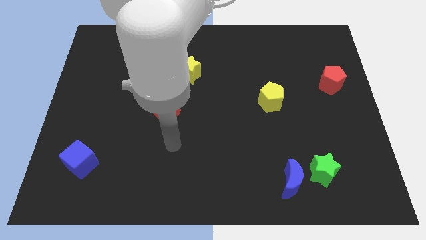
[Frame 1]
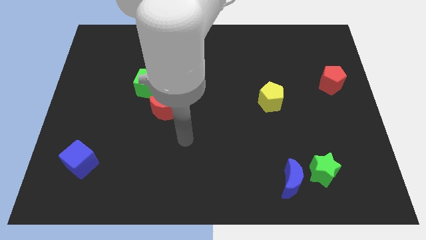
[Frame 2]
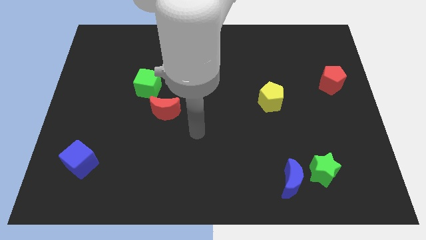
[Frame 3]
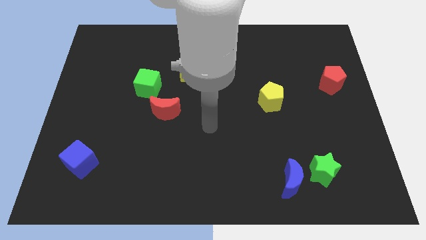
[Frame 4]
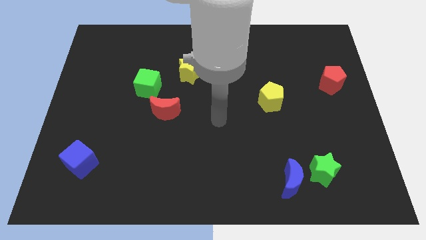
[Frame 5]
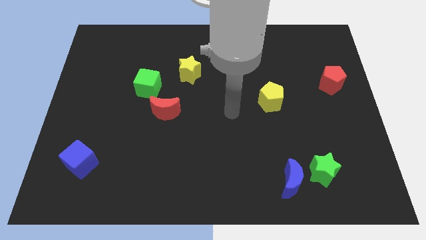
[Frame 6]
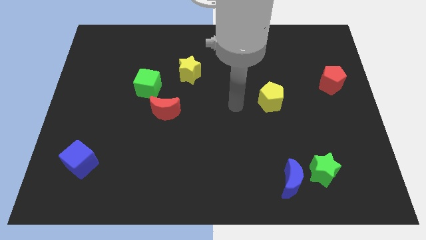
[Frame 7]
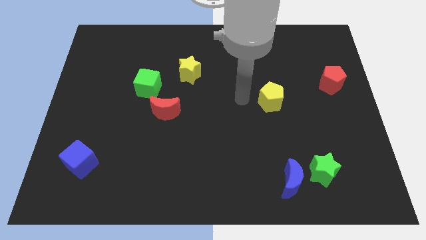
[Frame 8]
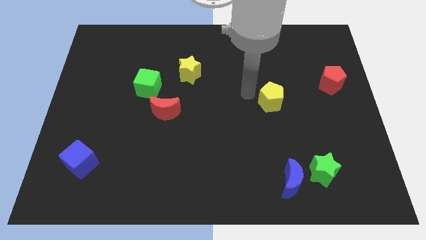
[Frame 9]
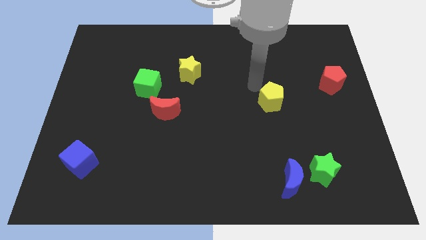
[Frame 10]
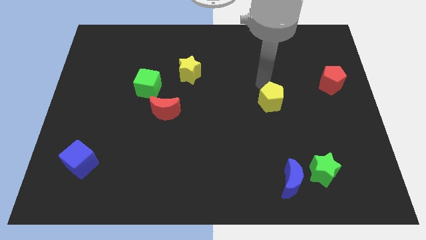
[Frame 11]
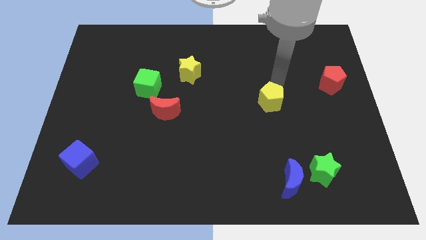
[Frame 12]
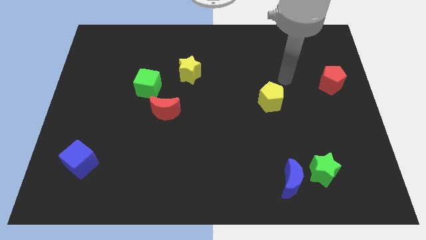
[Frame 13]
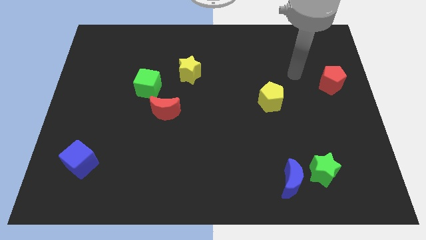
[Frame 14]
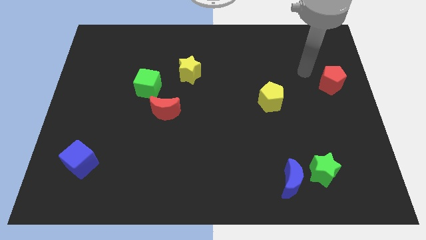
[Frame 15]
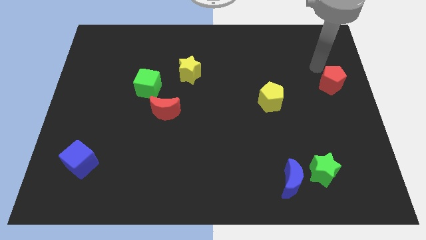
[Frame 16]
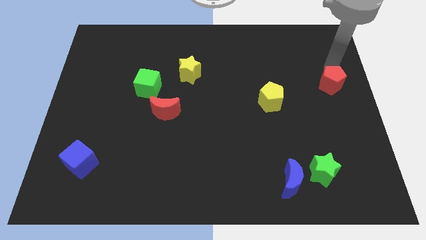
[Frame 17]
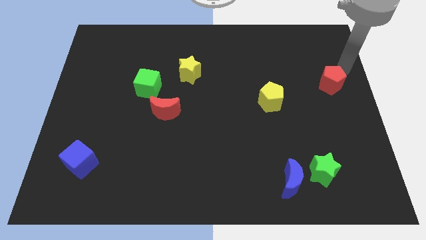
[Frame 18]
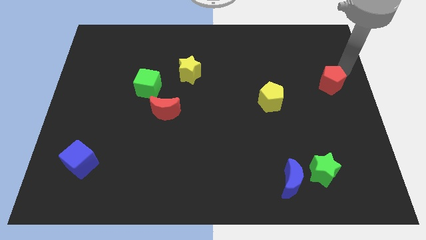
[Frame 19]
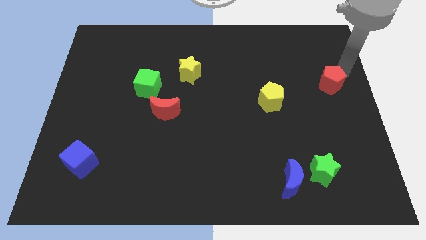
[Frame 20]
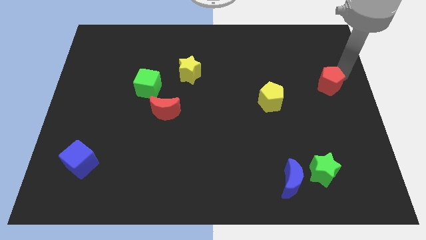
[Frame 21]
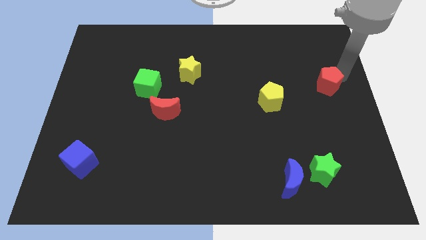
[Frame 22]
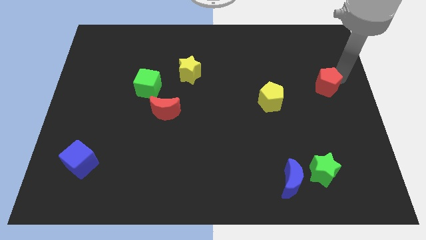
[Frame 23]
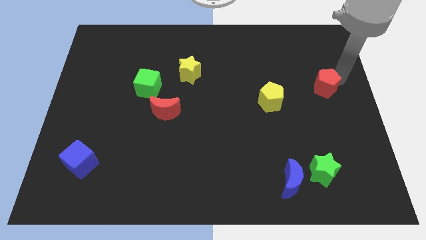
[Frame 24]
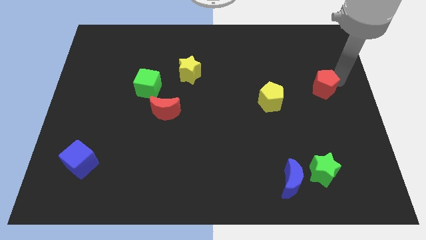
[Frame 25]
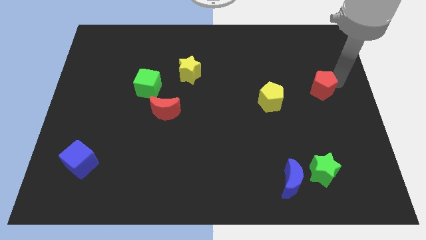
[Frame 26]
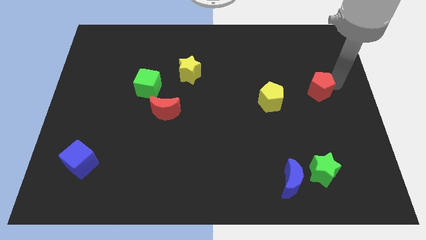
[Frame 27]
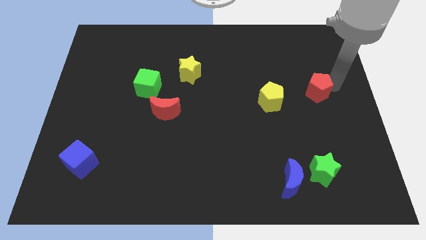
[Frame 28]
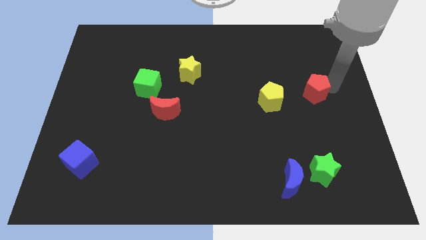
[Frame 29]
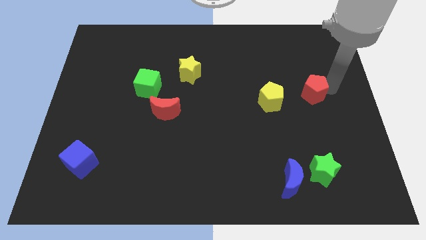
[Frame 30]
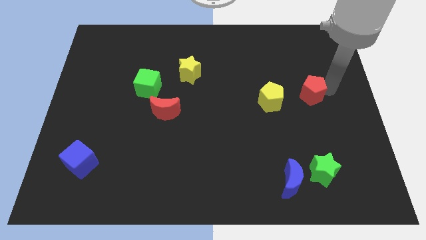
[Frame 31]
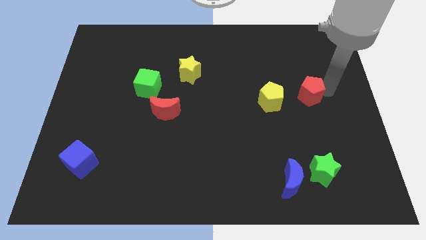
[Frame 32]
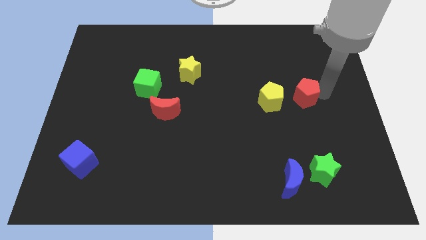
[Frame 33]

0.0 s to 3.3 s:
move the red pentagon slightly downwards and to the left diagonally

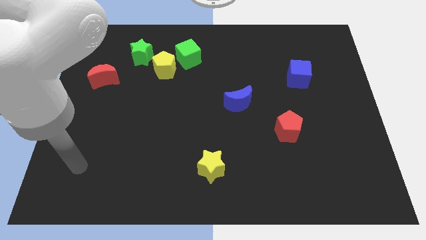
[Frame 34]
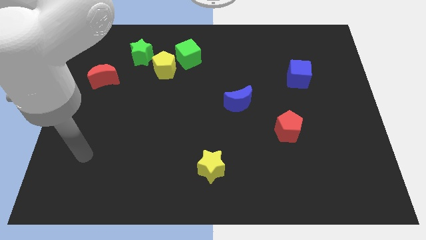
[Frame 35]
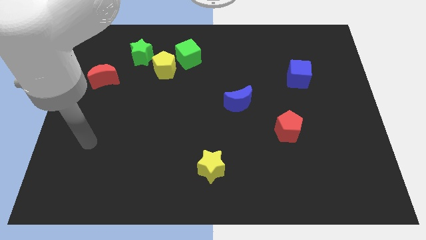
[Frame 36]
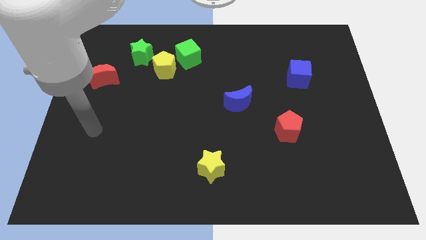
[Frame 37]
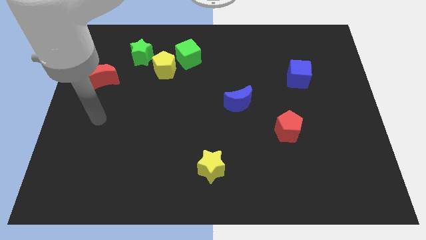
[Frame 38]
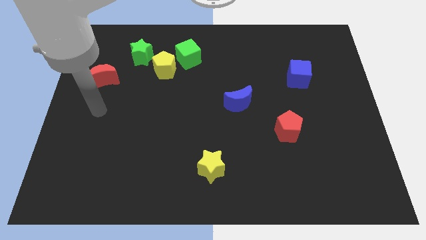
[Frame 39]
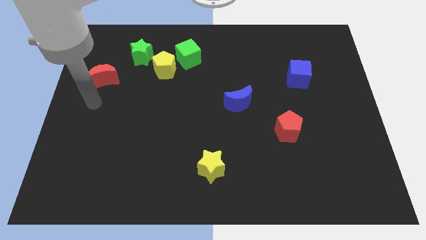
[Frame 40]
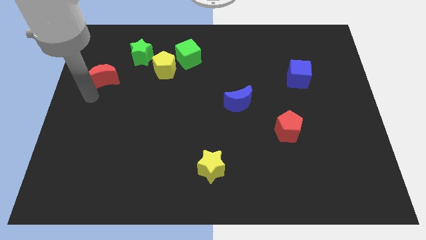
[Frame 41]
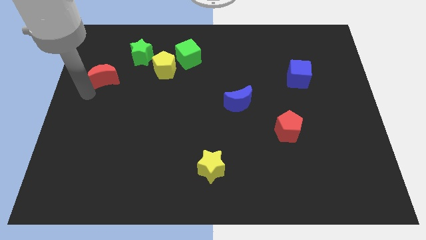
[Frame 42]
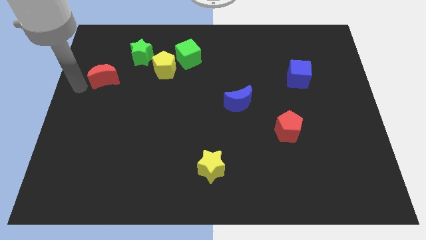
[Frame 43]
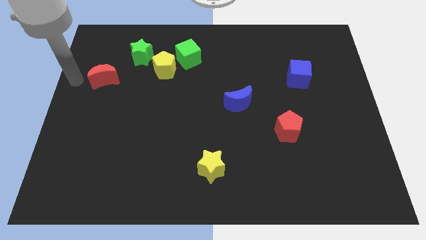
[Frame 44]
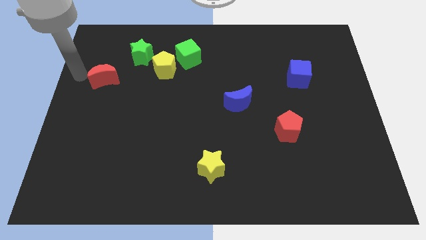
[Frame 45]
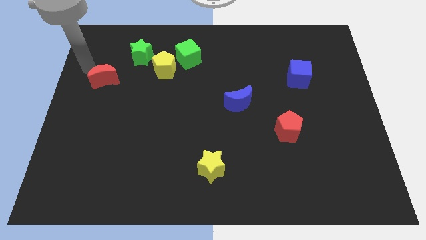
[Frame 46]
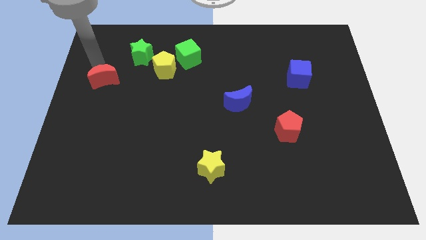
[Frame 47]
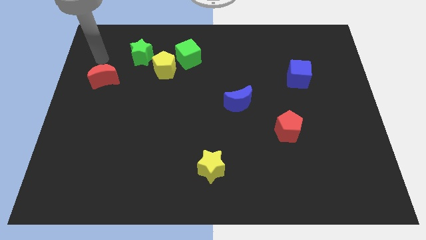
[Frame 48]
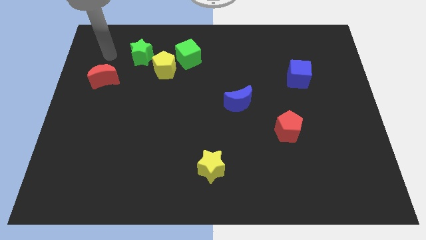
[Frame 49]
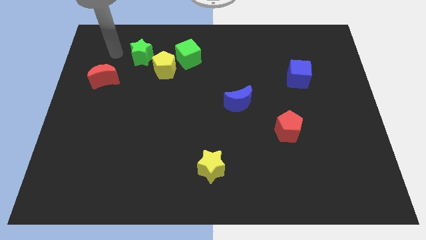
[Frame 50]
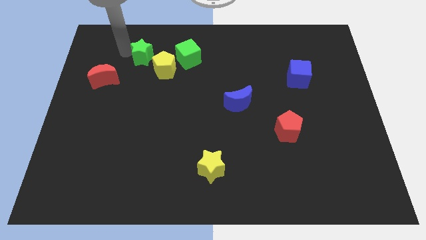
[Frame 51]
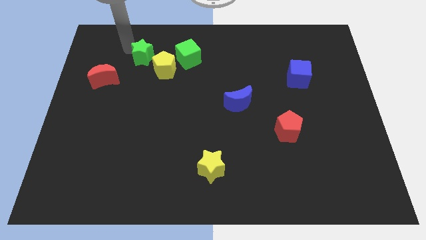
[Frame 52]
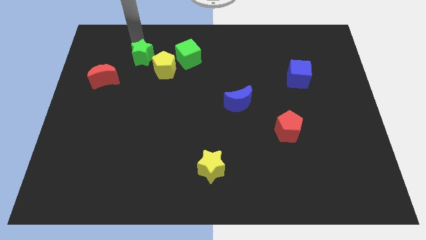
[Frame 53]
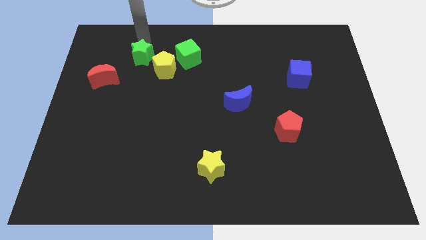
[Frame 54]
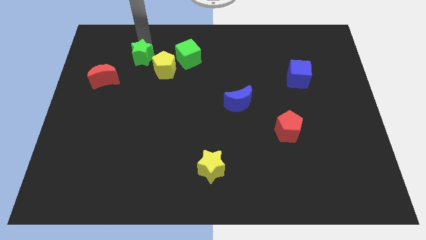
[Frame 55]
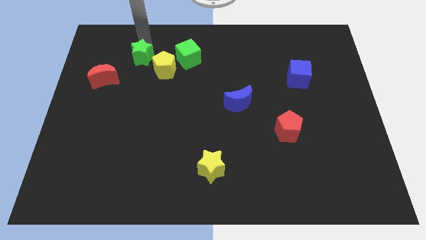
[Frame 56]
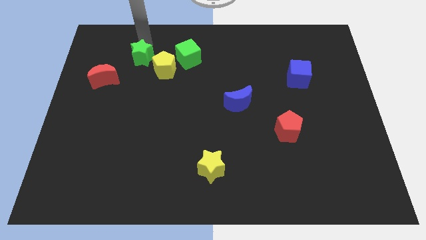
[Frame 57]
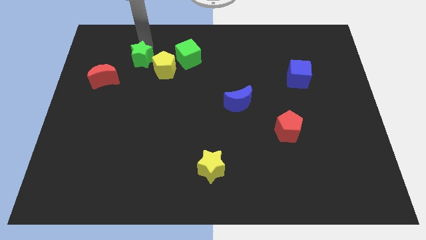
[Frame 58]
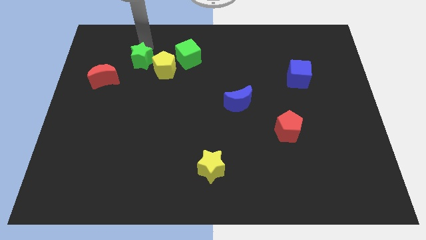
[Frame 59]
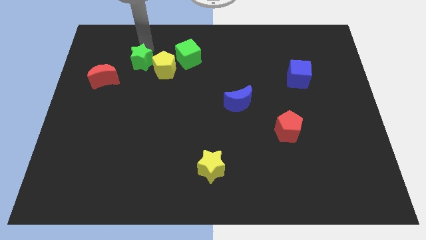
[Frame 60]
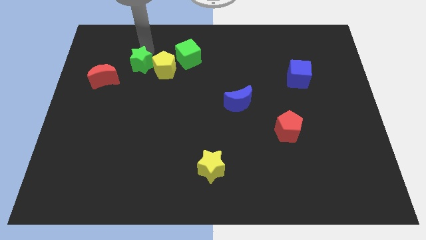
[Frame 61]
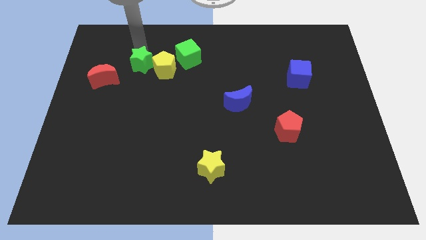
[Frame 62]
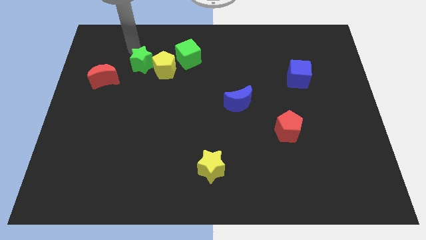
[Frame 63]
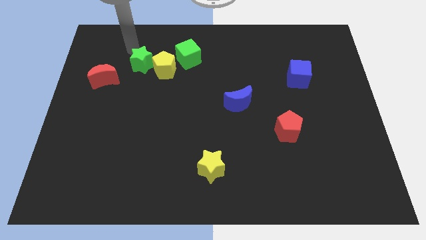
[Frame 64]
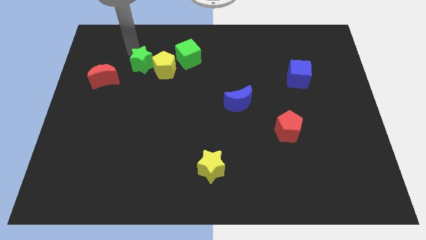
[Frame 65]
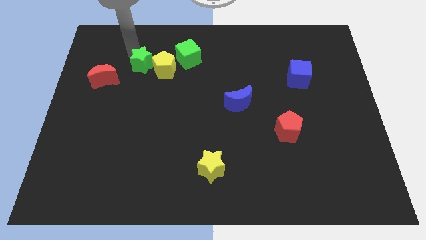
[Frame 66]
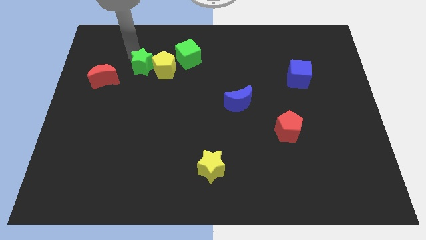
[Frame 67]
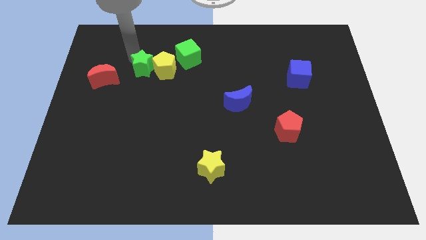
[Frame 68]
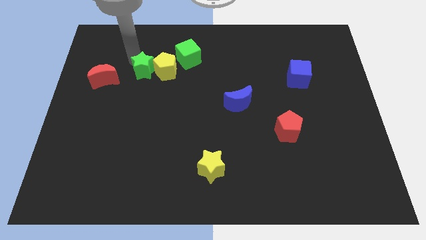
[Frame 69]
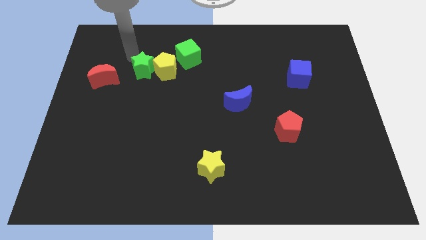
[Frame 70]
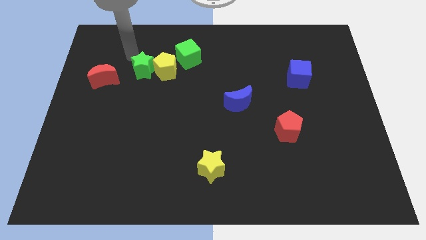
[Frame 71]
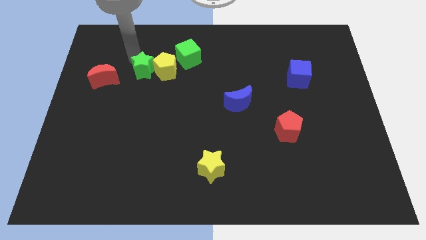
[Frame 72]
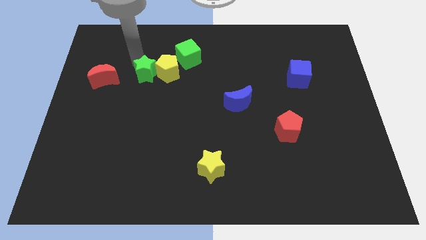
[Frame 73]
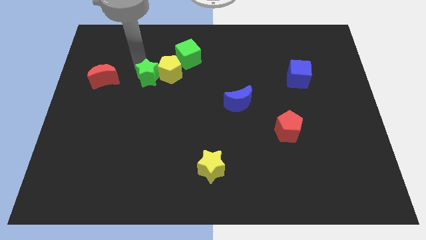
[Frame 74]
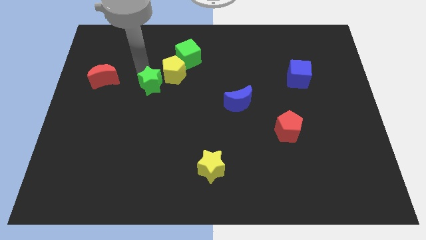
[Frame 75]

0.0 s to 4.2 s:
slightly move the green star downwards and right

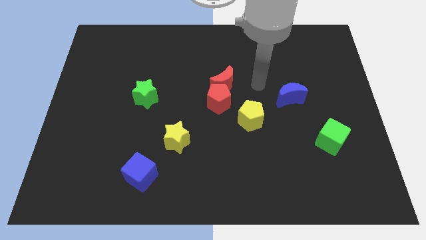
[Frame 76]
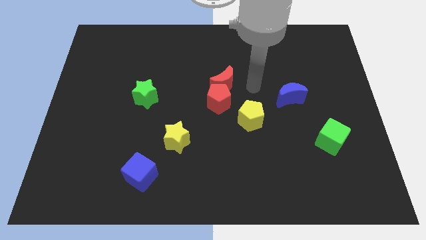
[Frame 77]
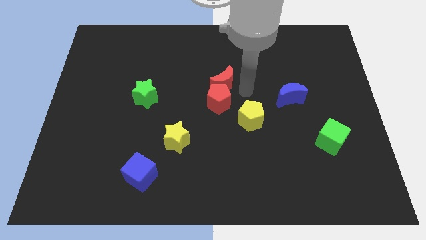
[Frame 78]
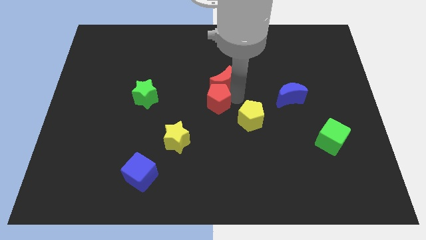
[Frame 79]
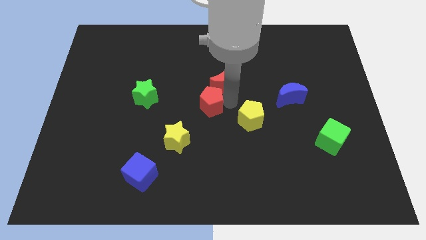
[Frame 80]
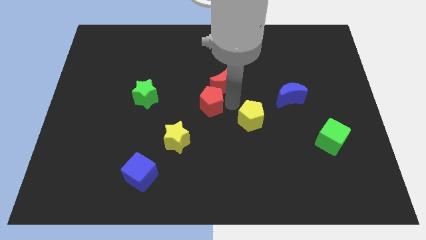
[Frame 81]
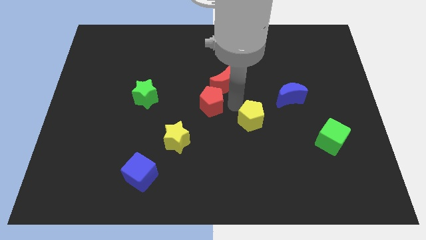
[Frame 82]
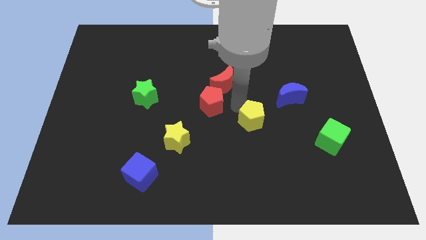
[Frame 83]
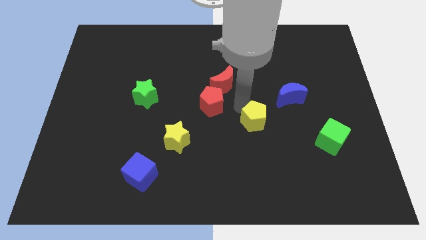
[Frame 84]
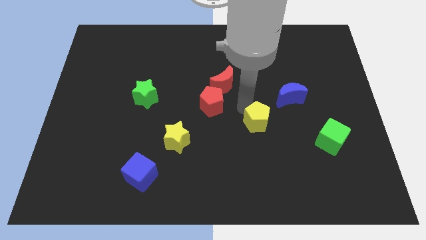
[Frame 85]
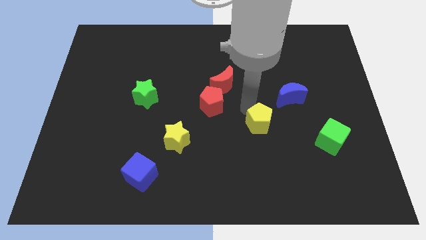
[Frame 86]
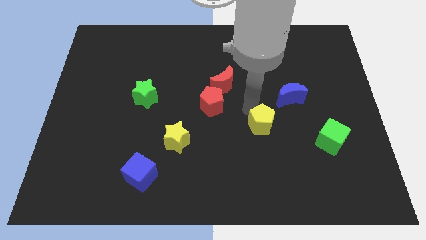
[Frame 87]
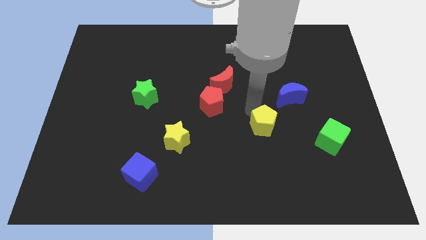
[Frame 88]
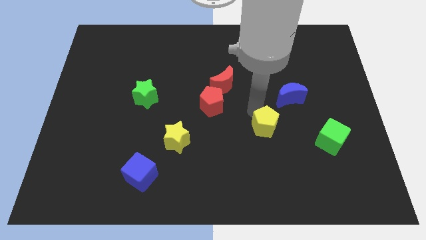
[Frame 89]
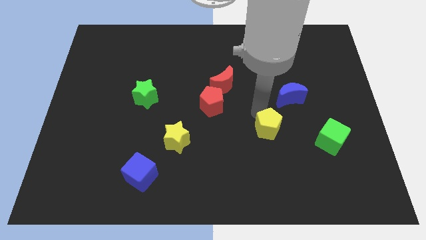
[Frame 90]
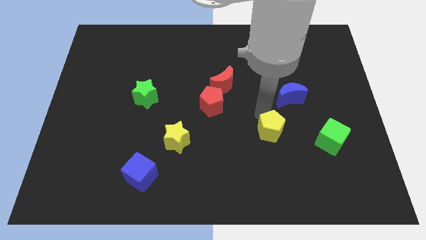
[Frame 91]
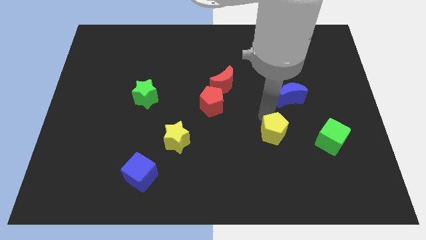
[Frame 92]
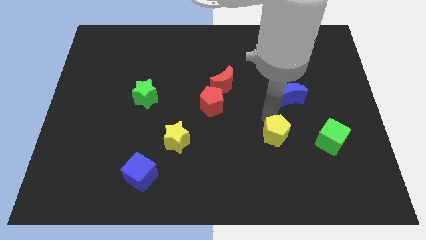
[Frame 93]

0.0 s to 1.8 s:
push the yellow pentagon diagonally downwards and to the right a bit
